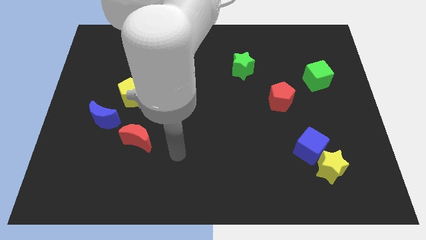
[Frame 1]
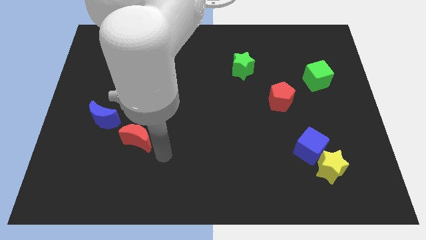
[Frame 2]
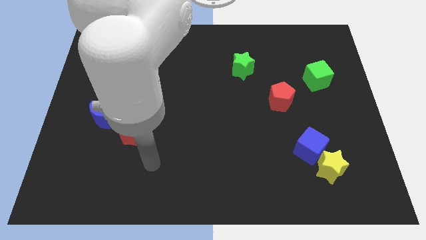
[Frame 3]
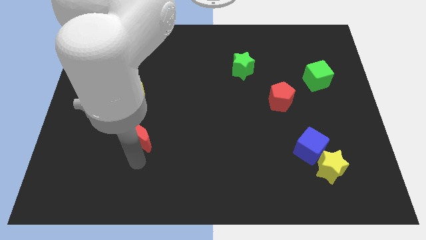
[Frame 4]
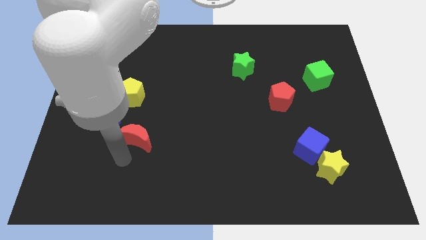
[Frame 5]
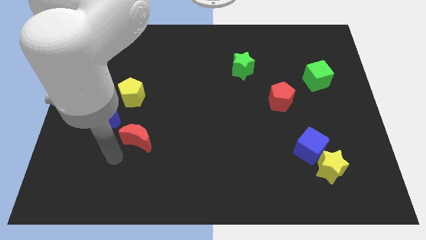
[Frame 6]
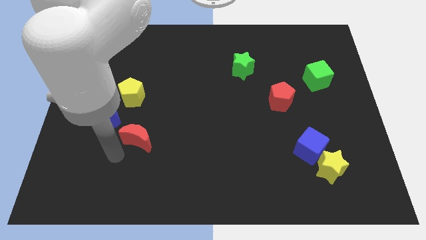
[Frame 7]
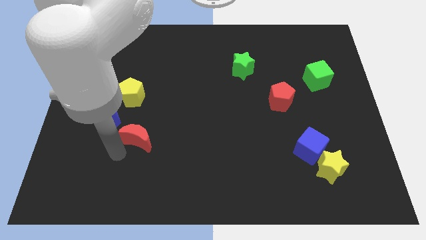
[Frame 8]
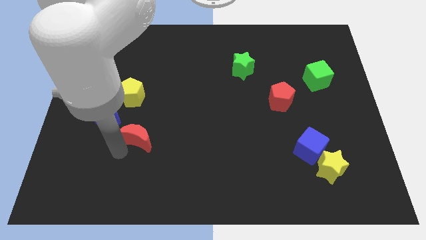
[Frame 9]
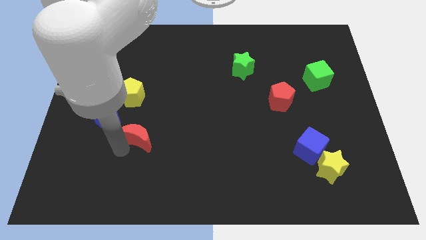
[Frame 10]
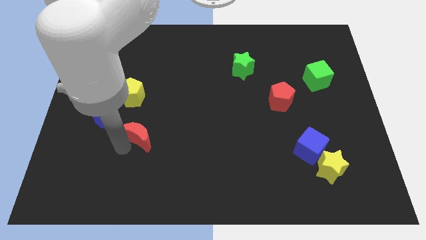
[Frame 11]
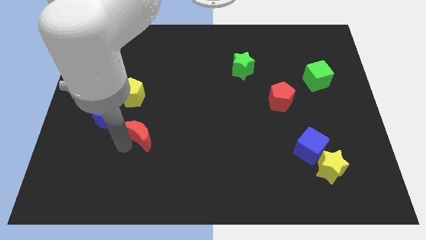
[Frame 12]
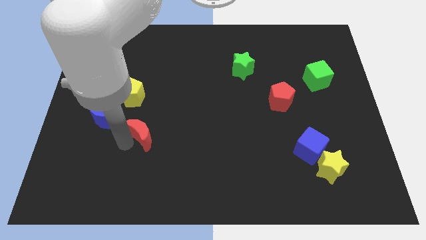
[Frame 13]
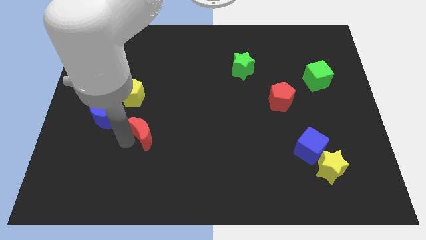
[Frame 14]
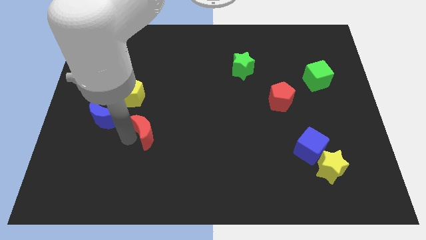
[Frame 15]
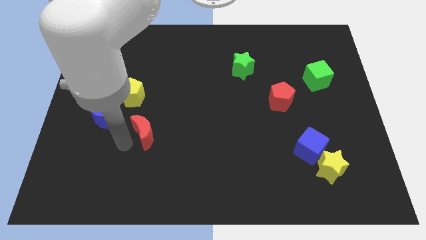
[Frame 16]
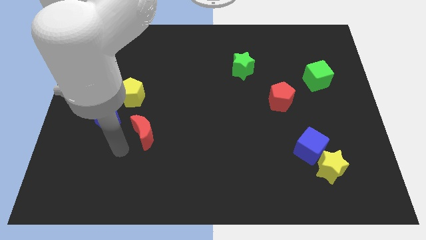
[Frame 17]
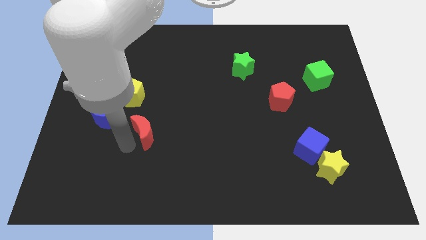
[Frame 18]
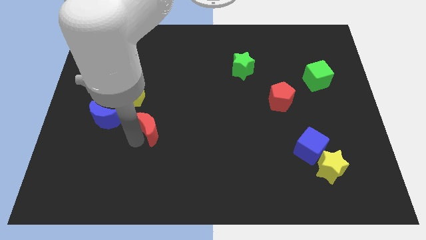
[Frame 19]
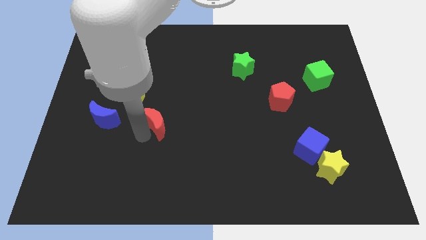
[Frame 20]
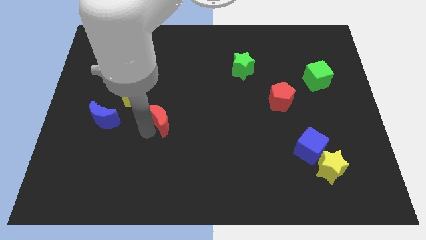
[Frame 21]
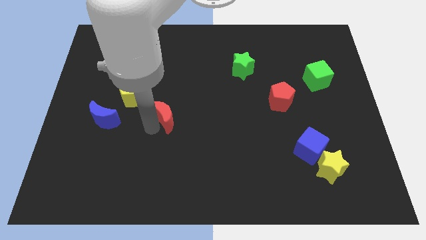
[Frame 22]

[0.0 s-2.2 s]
slide the red moon upwards and to the right diagonally a bit

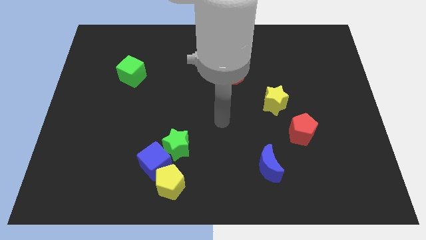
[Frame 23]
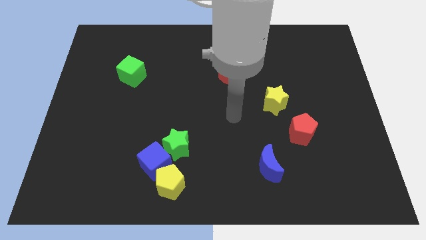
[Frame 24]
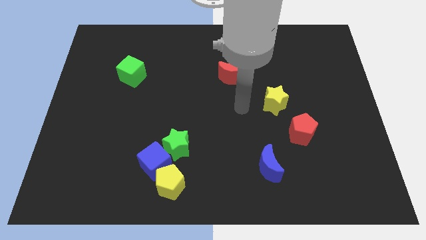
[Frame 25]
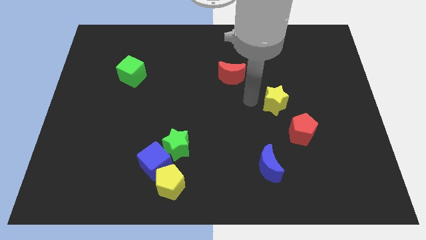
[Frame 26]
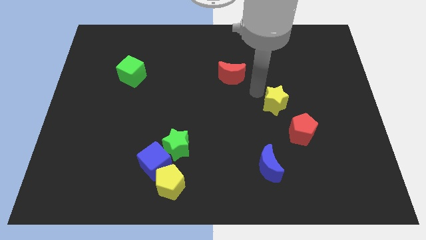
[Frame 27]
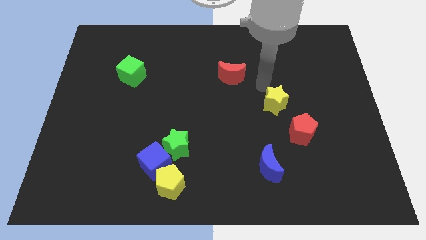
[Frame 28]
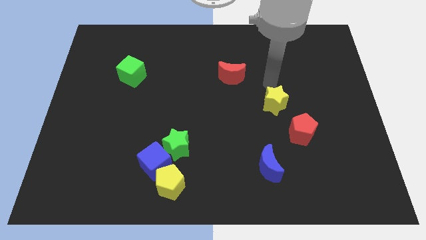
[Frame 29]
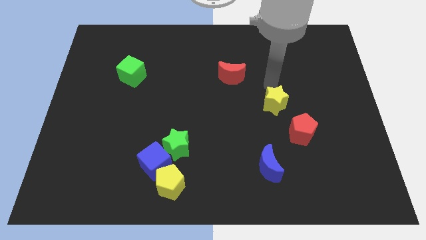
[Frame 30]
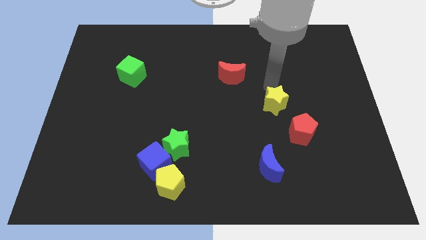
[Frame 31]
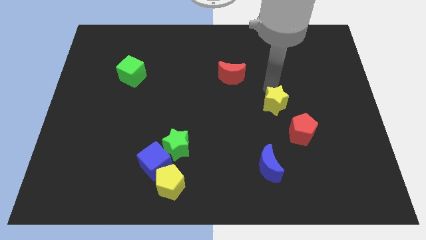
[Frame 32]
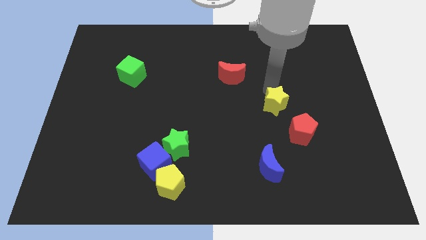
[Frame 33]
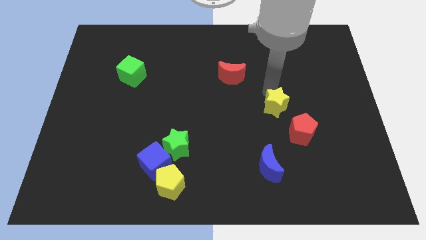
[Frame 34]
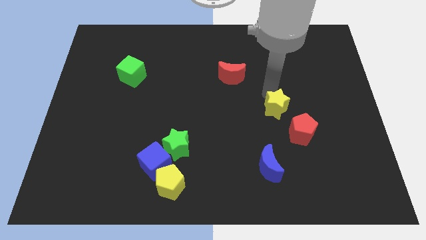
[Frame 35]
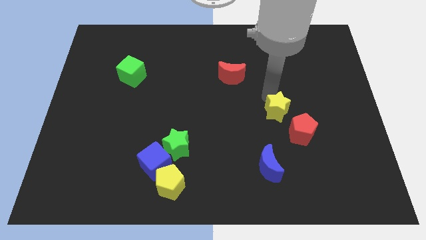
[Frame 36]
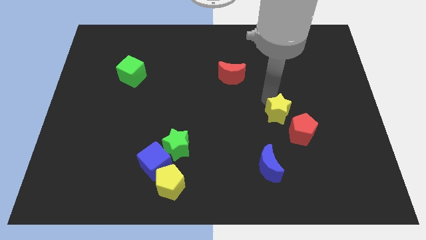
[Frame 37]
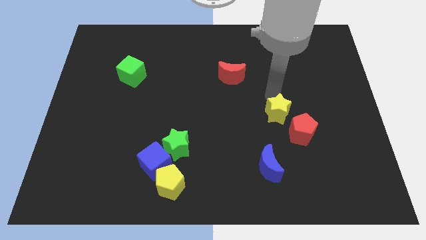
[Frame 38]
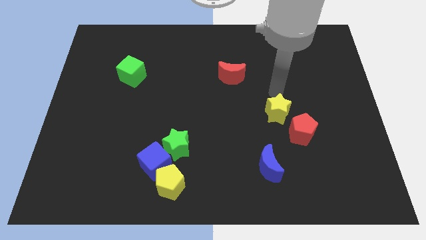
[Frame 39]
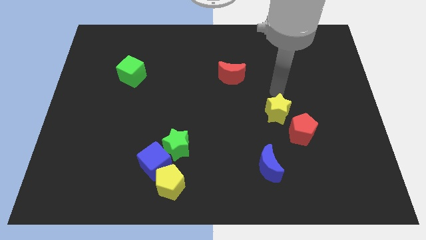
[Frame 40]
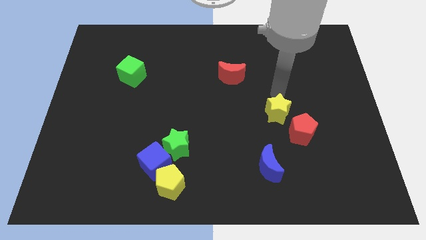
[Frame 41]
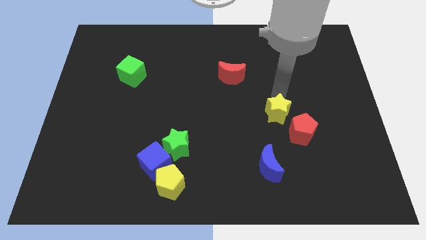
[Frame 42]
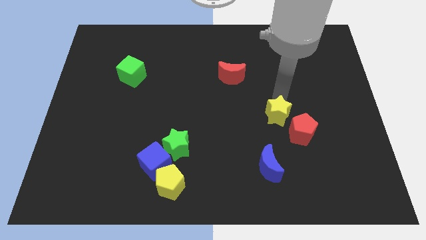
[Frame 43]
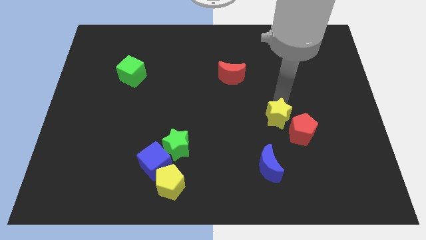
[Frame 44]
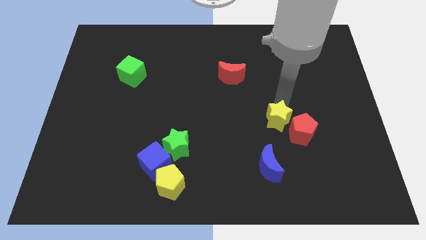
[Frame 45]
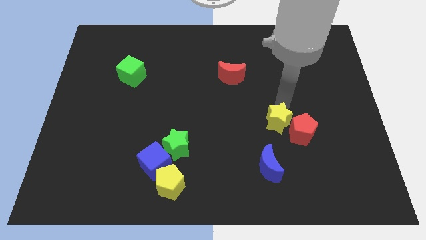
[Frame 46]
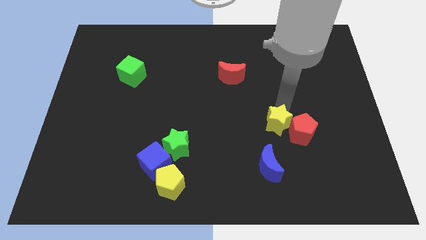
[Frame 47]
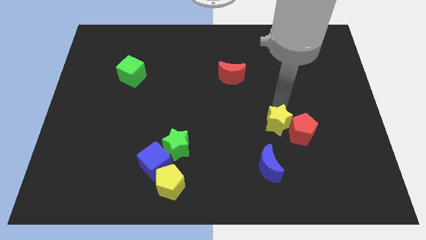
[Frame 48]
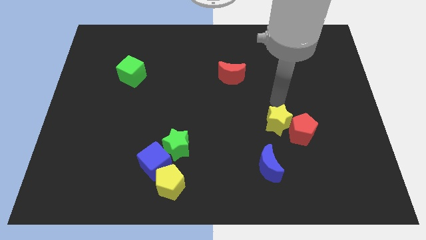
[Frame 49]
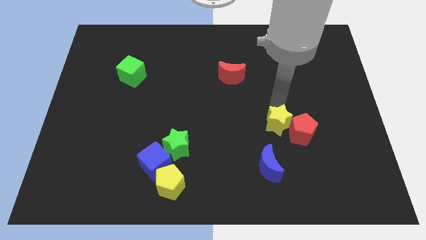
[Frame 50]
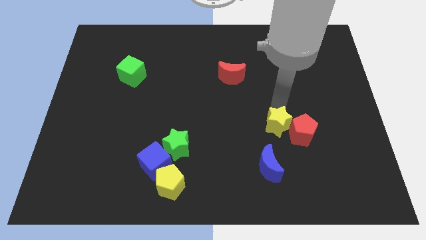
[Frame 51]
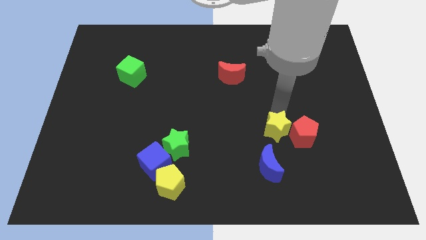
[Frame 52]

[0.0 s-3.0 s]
slide the yellow star a bit downwards

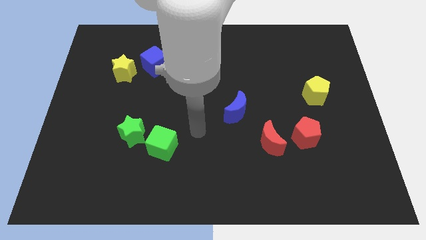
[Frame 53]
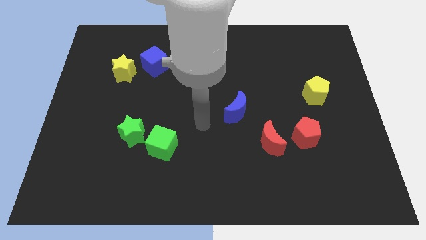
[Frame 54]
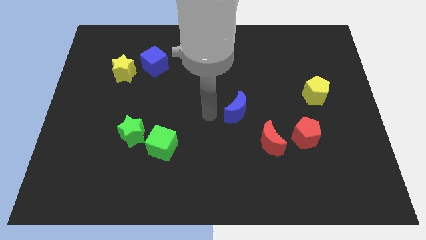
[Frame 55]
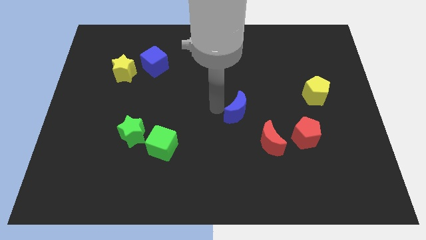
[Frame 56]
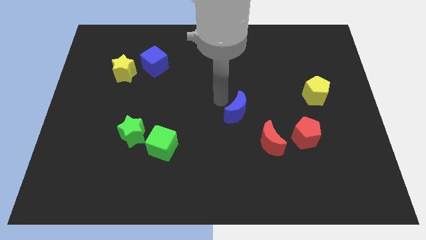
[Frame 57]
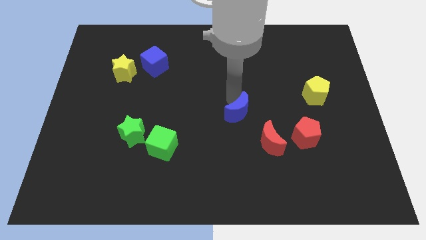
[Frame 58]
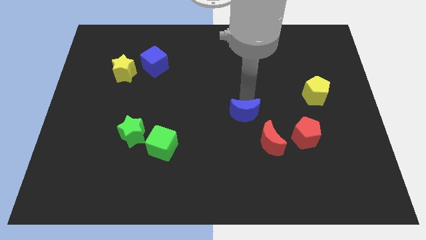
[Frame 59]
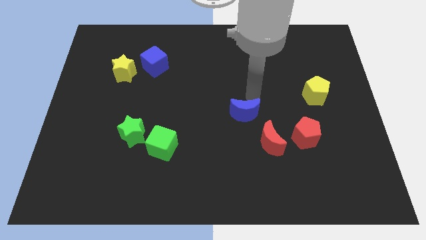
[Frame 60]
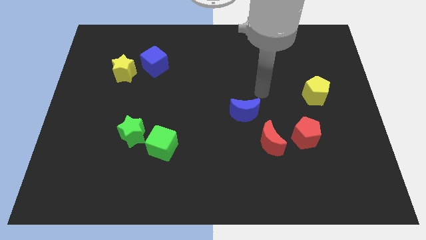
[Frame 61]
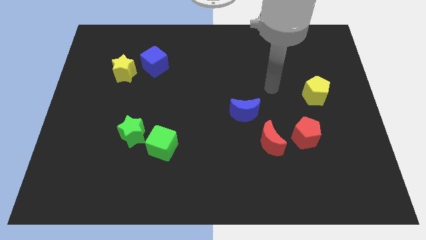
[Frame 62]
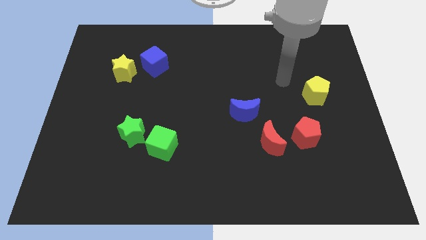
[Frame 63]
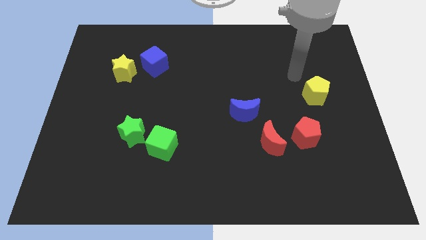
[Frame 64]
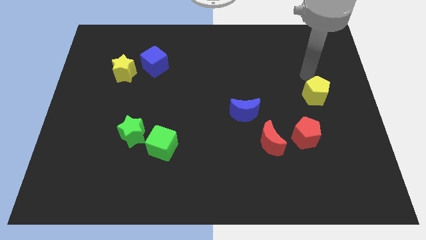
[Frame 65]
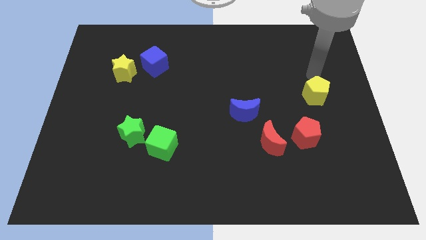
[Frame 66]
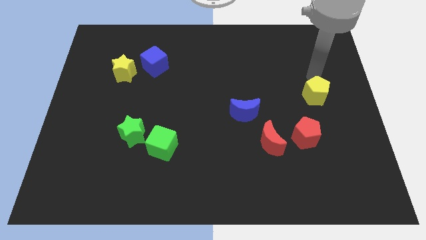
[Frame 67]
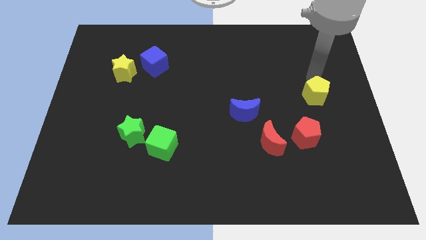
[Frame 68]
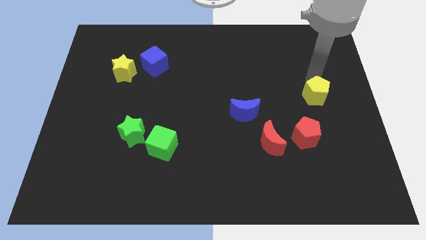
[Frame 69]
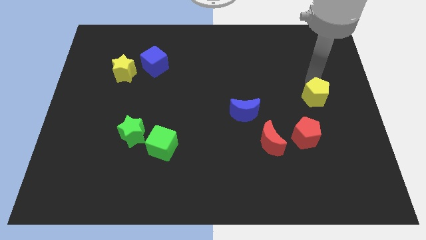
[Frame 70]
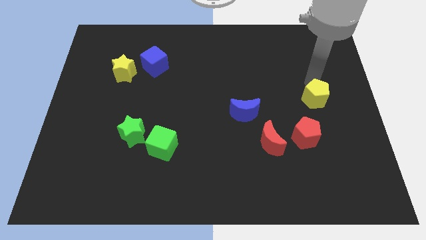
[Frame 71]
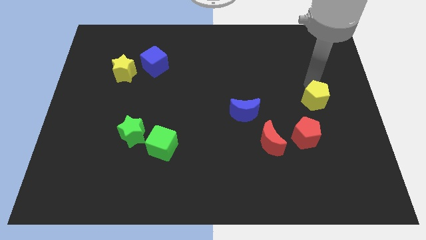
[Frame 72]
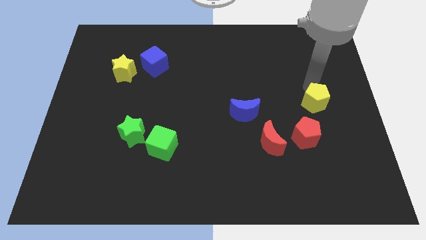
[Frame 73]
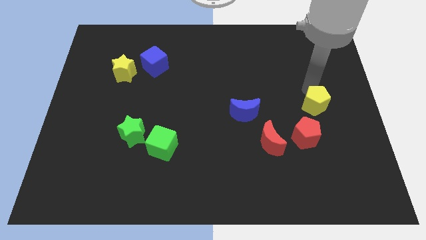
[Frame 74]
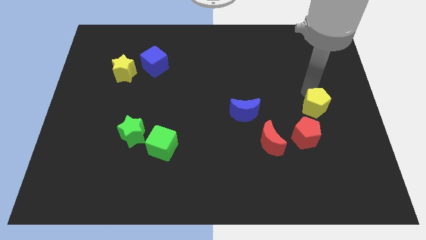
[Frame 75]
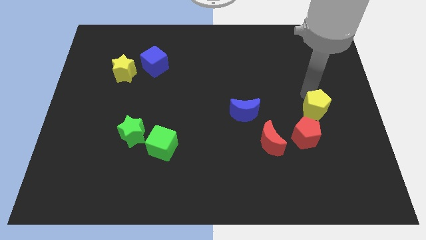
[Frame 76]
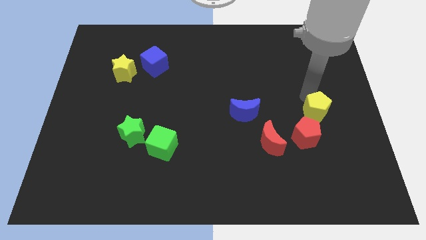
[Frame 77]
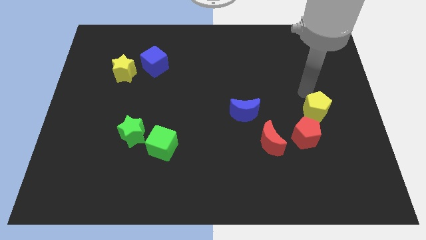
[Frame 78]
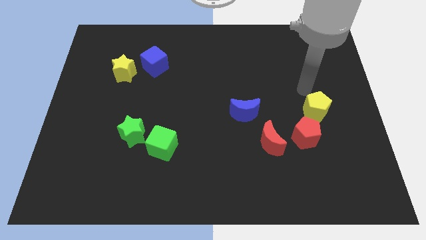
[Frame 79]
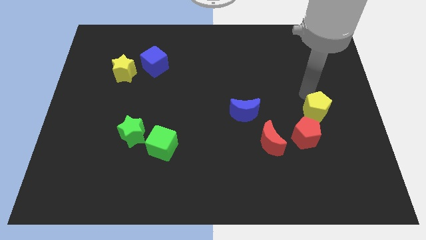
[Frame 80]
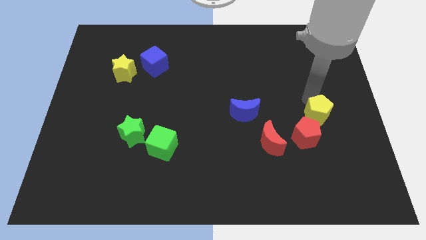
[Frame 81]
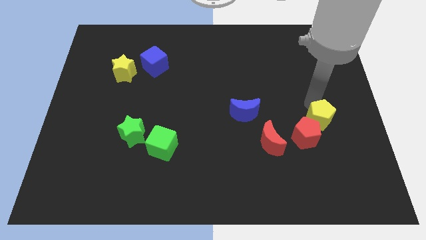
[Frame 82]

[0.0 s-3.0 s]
push the yellow pentagon a little downwards
